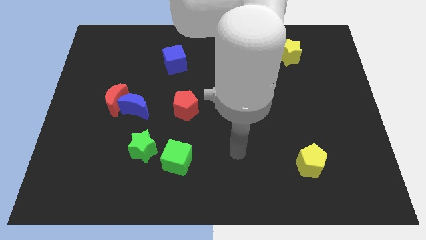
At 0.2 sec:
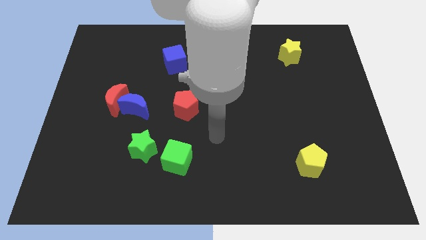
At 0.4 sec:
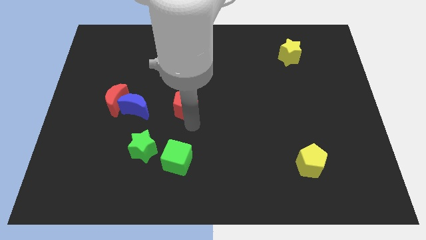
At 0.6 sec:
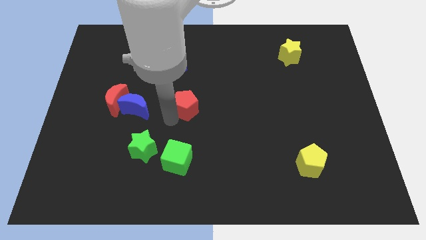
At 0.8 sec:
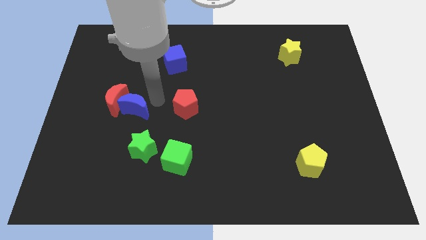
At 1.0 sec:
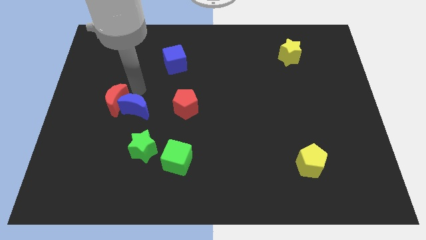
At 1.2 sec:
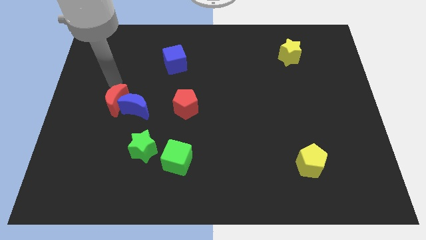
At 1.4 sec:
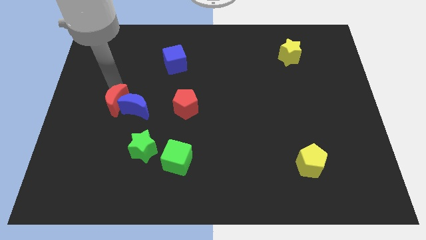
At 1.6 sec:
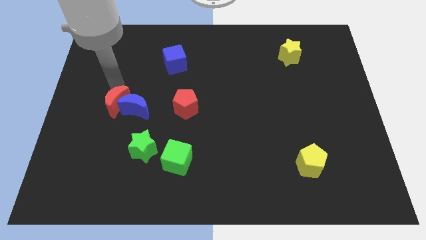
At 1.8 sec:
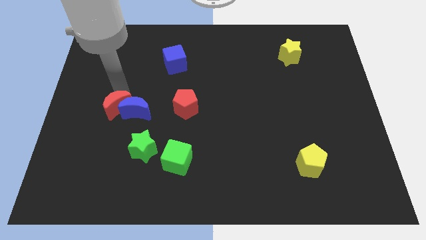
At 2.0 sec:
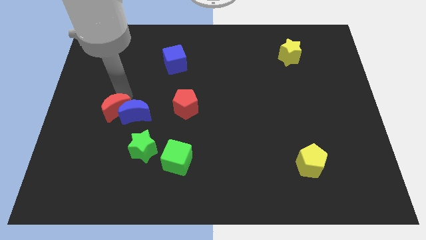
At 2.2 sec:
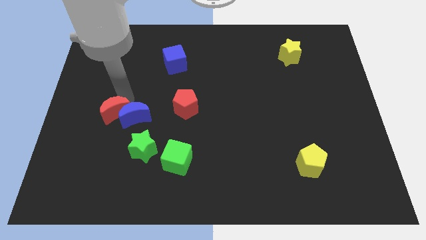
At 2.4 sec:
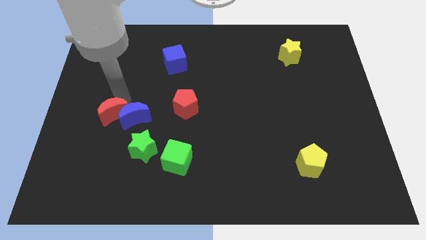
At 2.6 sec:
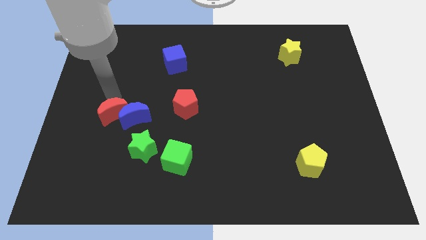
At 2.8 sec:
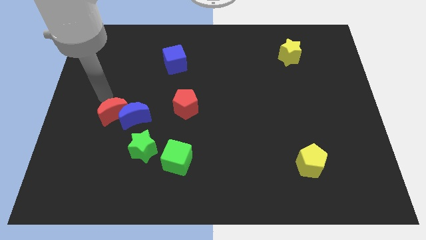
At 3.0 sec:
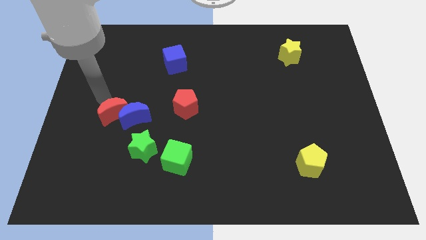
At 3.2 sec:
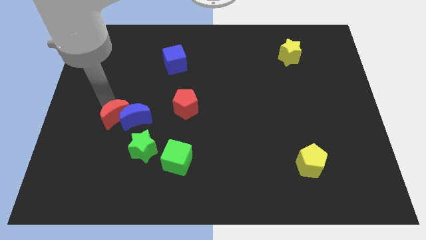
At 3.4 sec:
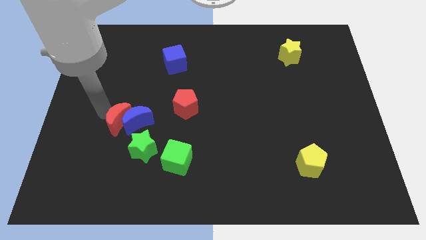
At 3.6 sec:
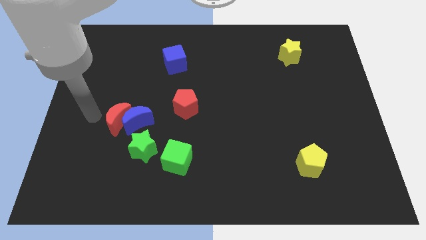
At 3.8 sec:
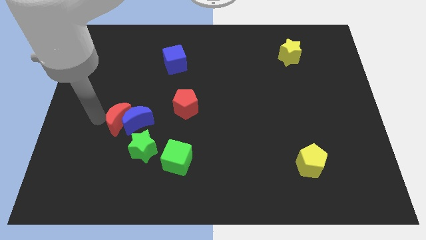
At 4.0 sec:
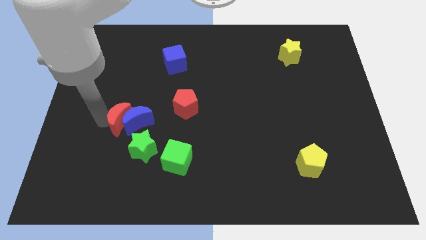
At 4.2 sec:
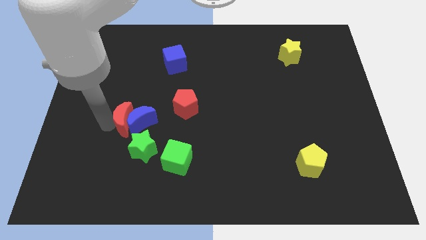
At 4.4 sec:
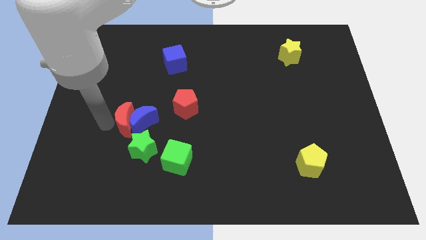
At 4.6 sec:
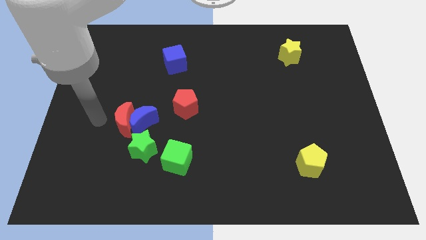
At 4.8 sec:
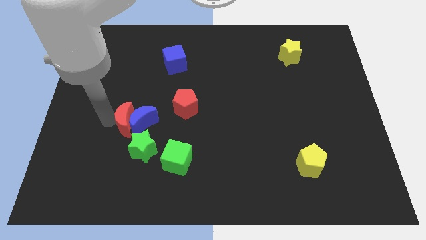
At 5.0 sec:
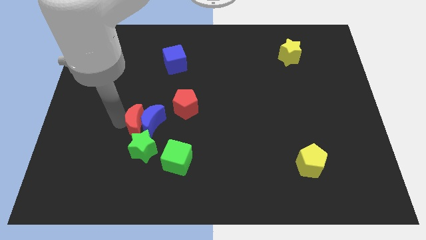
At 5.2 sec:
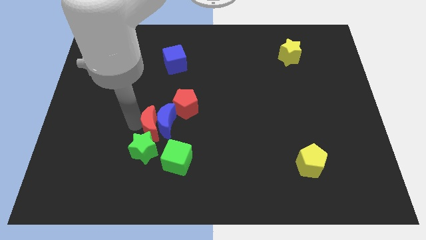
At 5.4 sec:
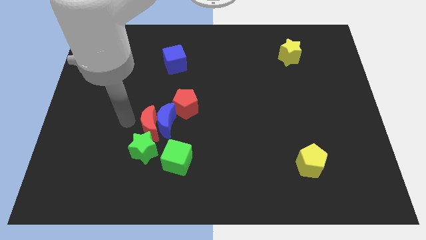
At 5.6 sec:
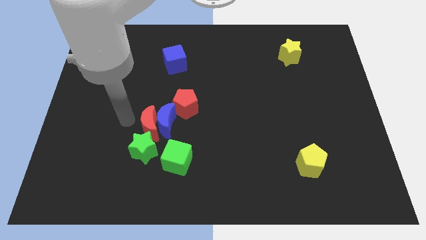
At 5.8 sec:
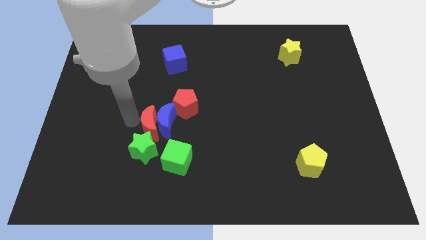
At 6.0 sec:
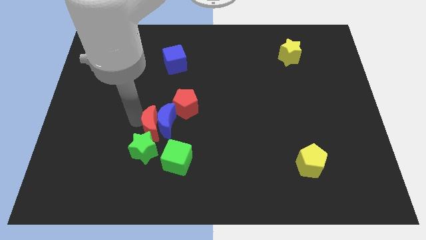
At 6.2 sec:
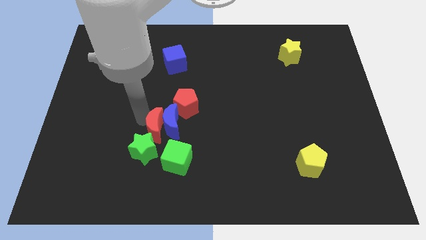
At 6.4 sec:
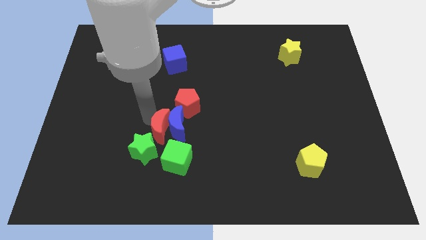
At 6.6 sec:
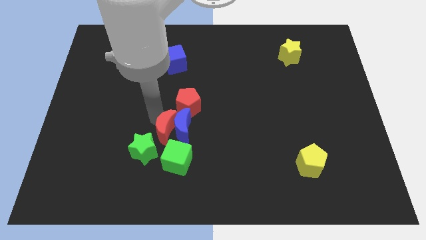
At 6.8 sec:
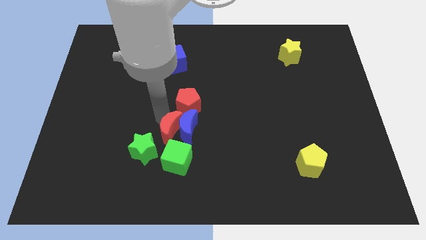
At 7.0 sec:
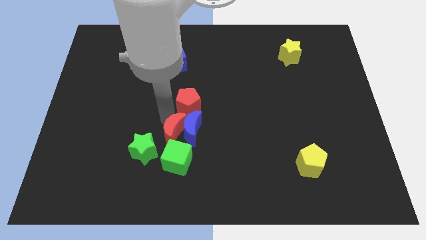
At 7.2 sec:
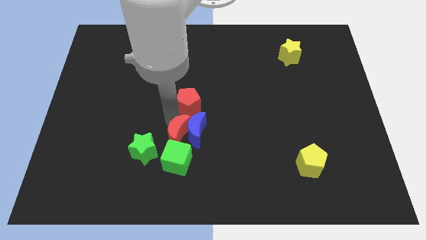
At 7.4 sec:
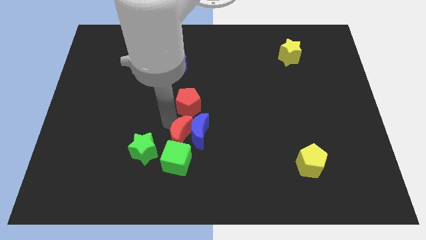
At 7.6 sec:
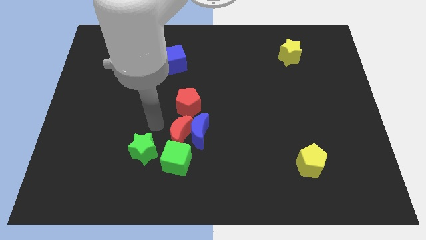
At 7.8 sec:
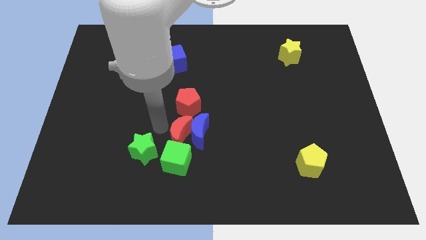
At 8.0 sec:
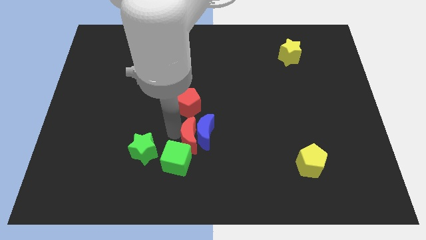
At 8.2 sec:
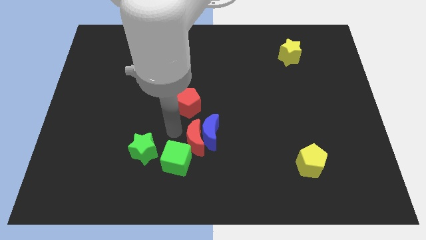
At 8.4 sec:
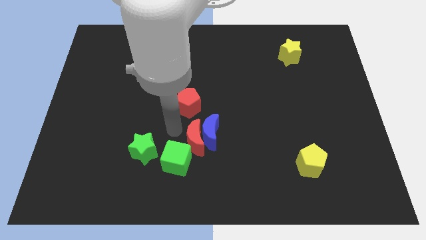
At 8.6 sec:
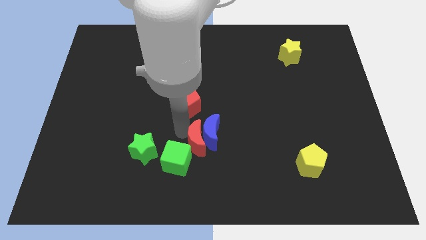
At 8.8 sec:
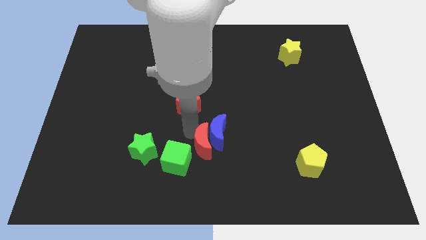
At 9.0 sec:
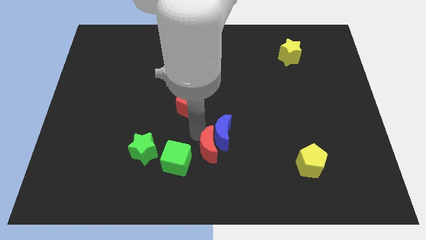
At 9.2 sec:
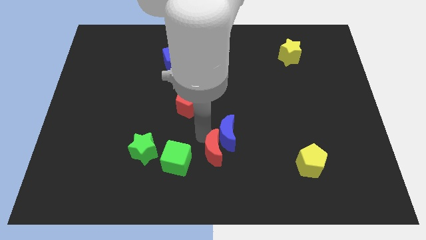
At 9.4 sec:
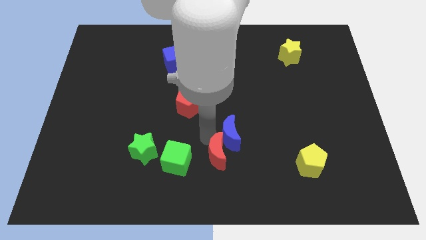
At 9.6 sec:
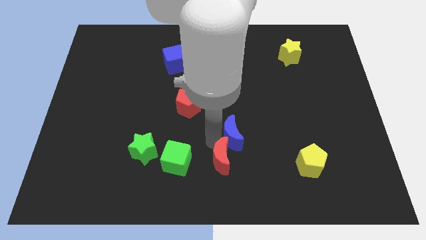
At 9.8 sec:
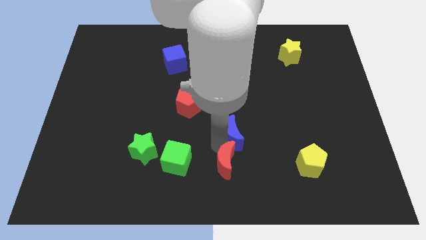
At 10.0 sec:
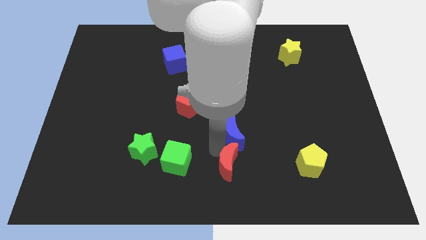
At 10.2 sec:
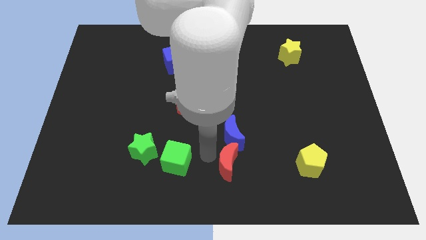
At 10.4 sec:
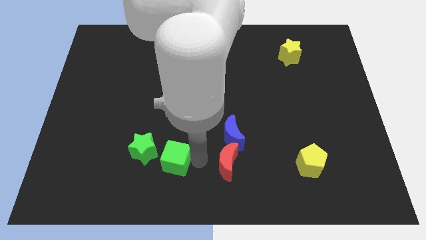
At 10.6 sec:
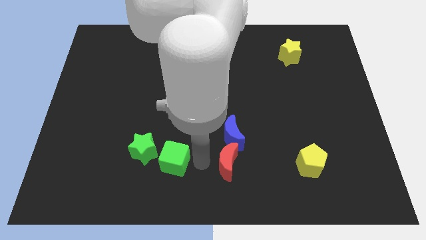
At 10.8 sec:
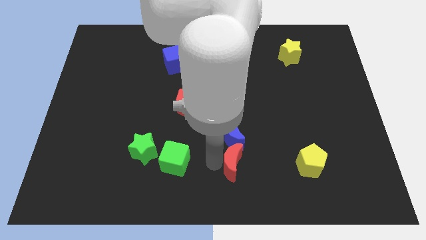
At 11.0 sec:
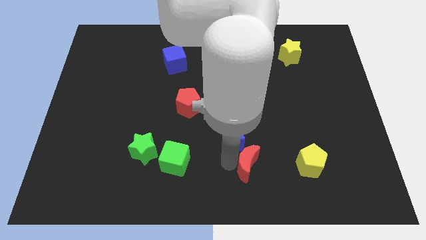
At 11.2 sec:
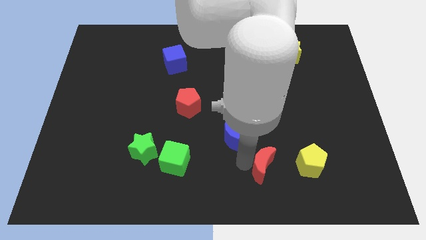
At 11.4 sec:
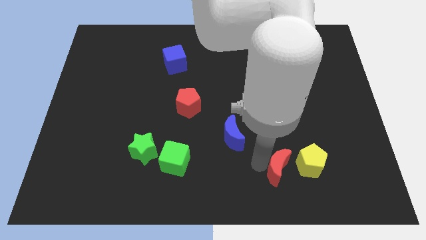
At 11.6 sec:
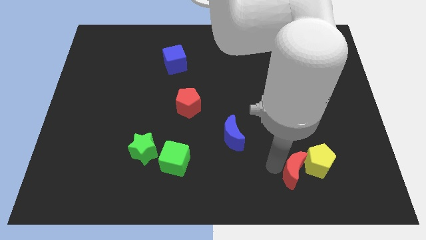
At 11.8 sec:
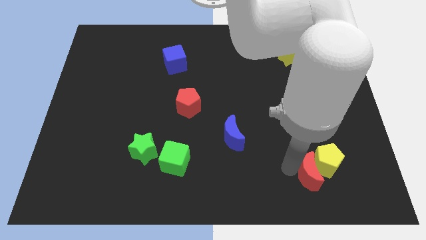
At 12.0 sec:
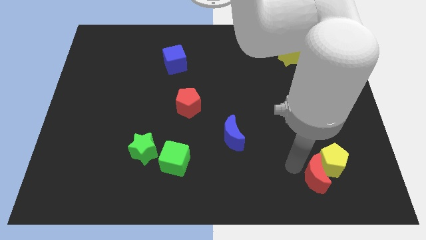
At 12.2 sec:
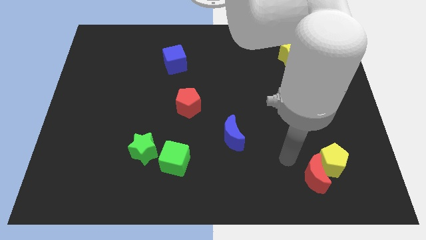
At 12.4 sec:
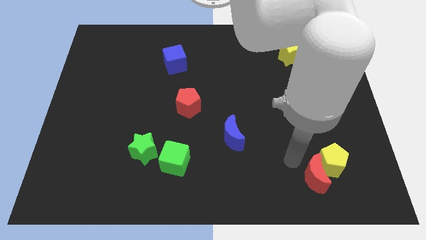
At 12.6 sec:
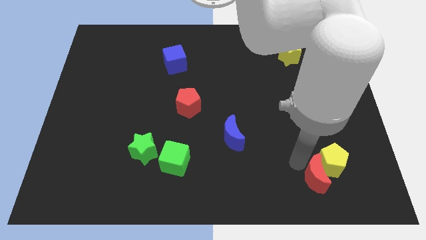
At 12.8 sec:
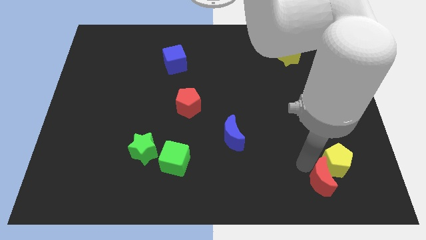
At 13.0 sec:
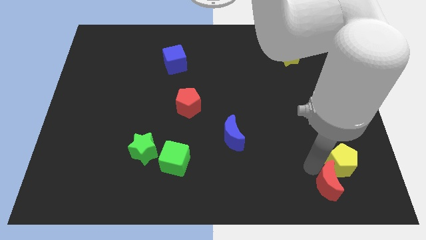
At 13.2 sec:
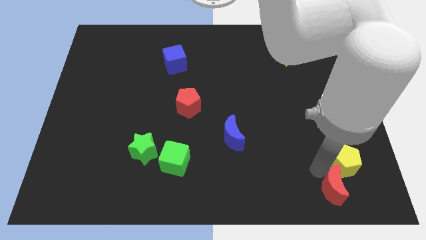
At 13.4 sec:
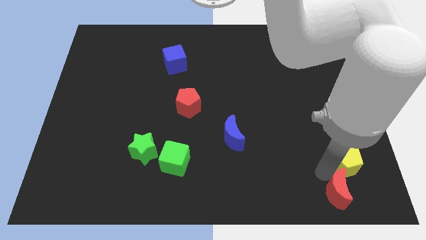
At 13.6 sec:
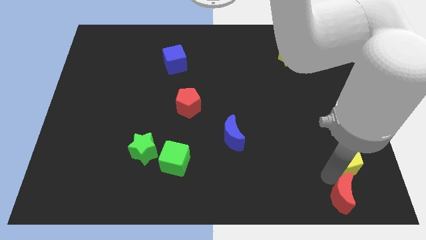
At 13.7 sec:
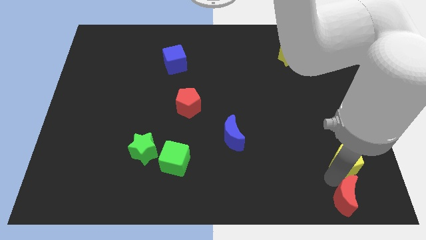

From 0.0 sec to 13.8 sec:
slide the red moon to the bottom right of the board
